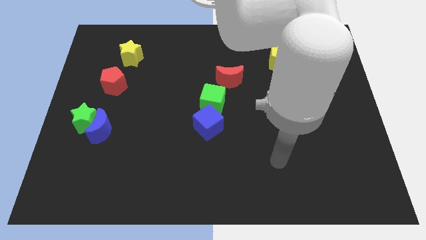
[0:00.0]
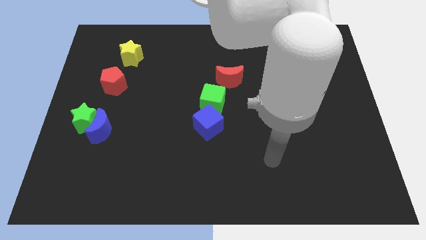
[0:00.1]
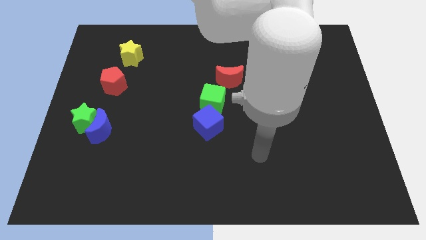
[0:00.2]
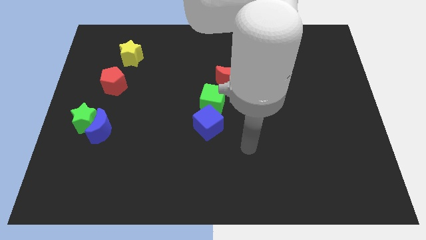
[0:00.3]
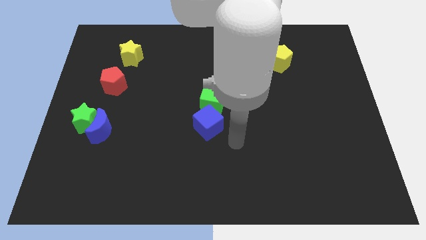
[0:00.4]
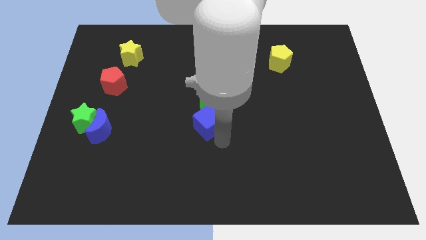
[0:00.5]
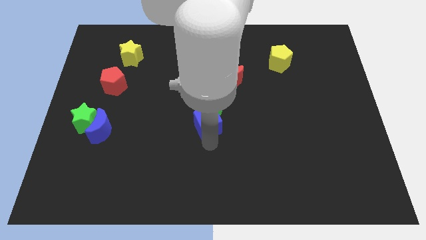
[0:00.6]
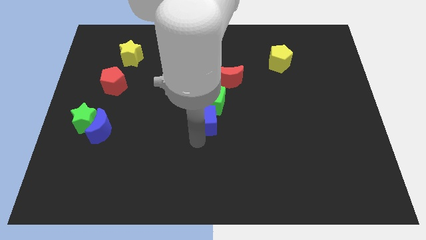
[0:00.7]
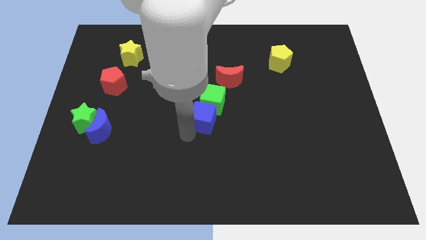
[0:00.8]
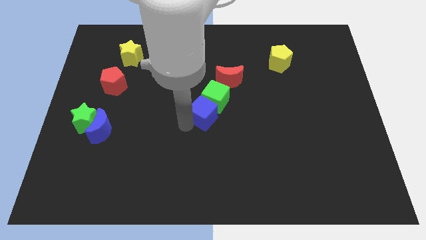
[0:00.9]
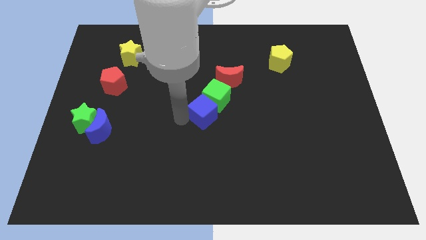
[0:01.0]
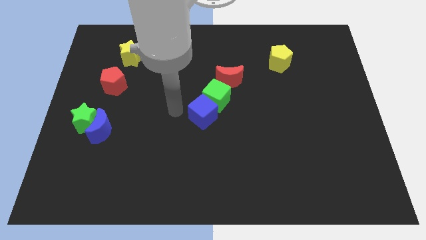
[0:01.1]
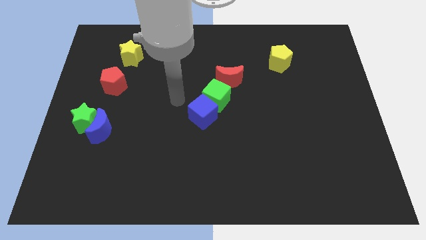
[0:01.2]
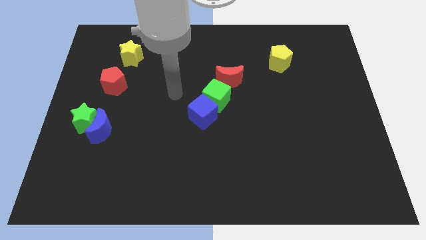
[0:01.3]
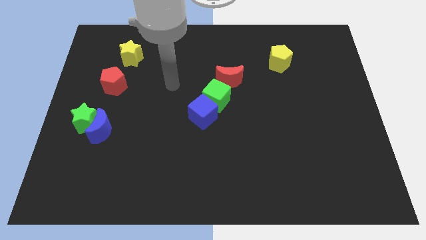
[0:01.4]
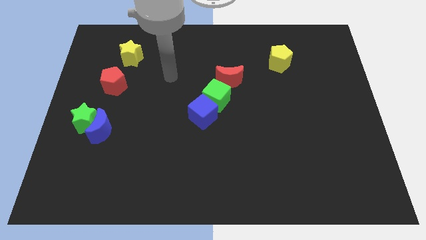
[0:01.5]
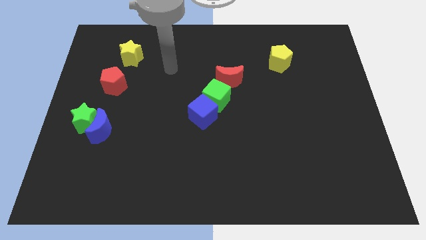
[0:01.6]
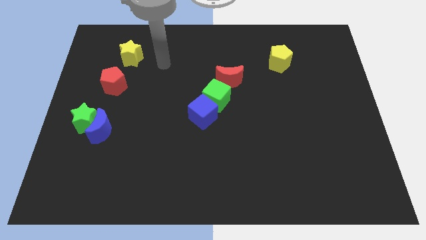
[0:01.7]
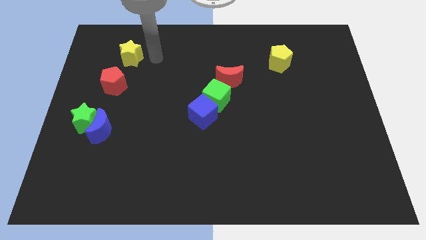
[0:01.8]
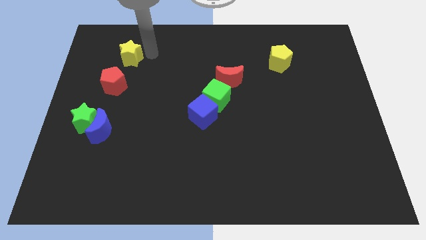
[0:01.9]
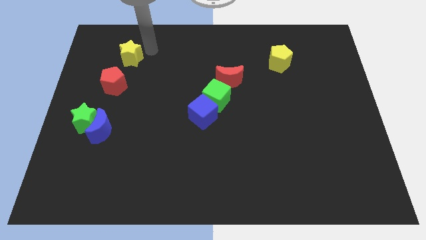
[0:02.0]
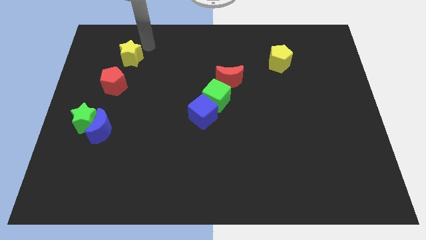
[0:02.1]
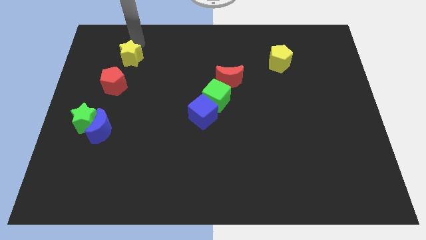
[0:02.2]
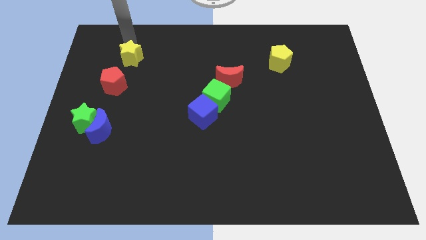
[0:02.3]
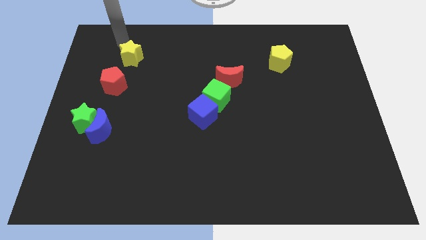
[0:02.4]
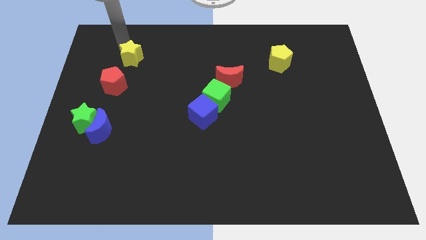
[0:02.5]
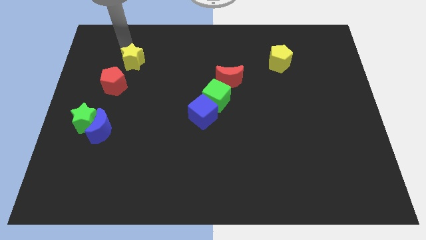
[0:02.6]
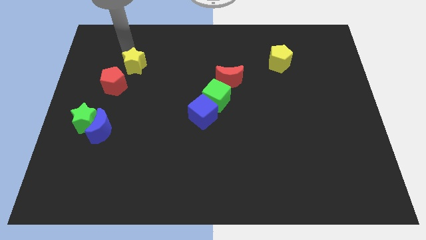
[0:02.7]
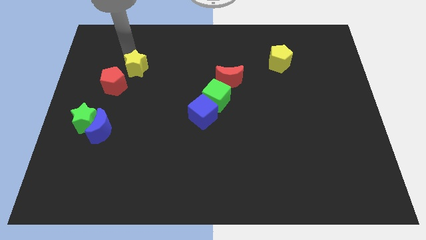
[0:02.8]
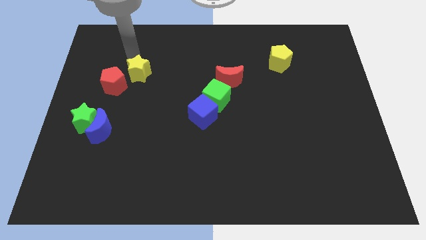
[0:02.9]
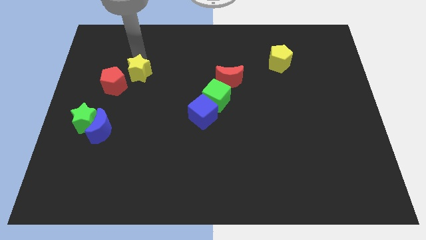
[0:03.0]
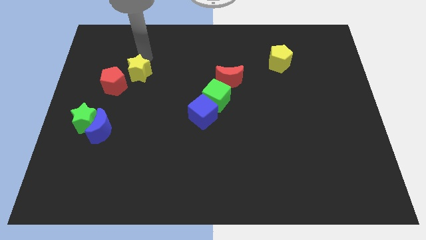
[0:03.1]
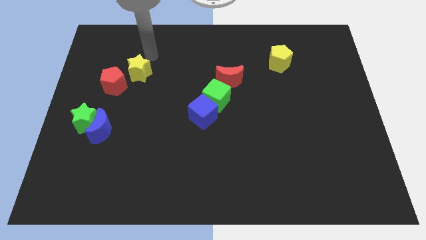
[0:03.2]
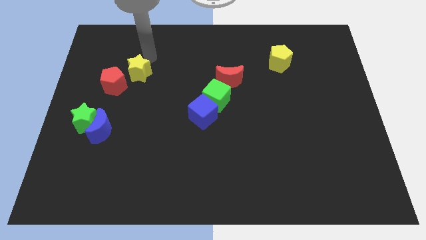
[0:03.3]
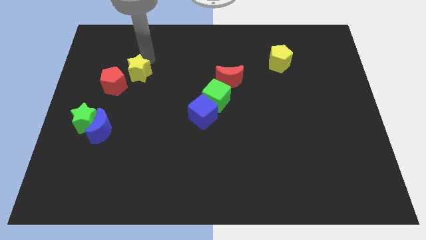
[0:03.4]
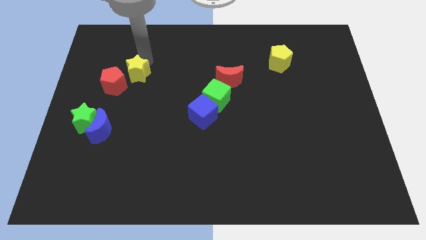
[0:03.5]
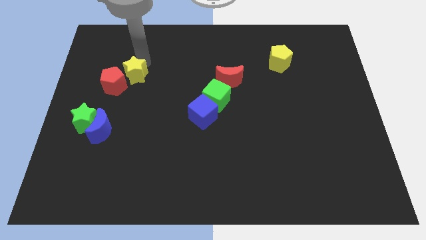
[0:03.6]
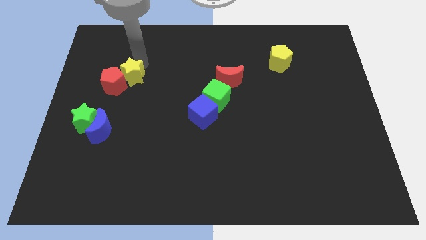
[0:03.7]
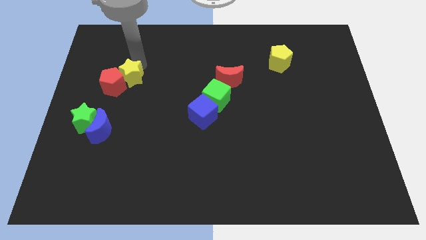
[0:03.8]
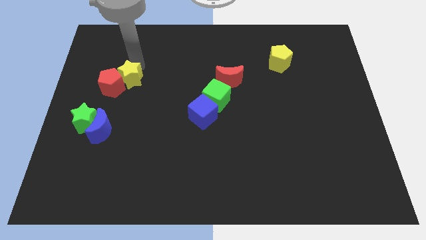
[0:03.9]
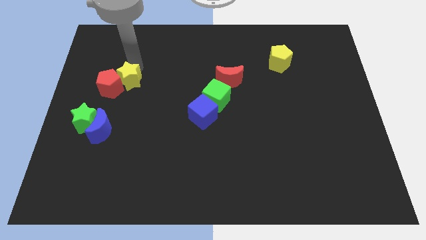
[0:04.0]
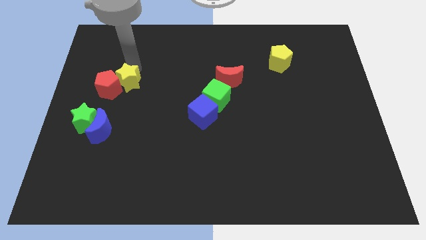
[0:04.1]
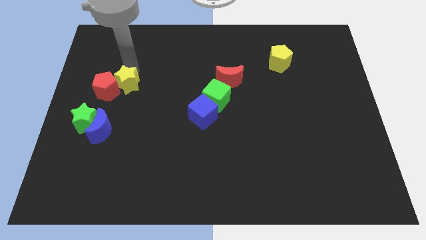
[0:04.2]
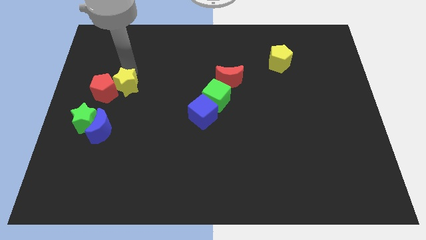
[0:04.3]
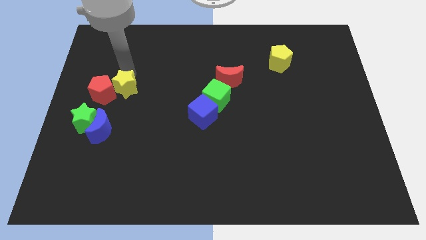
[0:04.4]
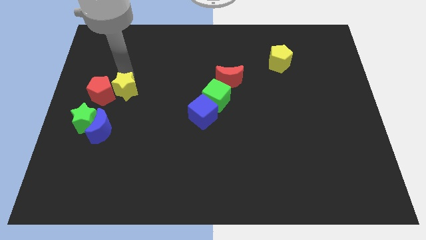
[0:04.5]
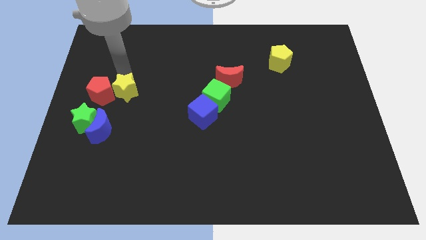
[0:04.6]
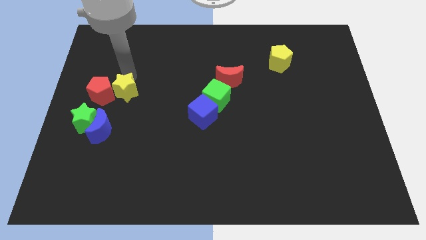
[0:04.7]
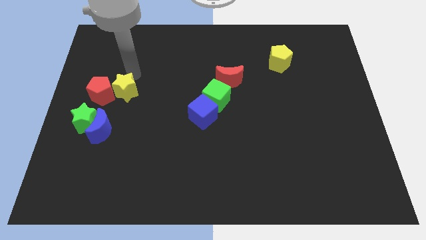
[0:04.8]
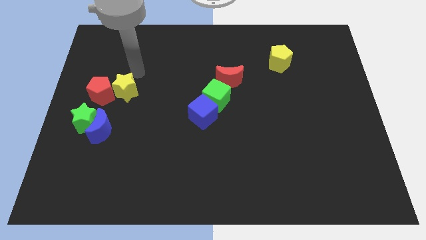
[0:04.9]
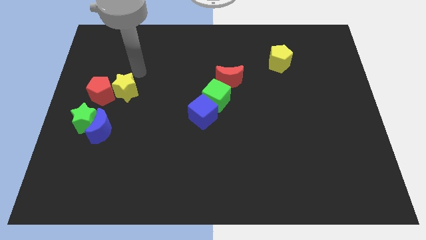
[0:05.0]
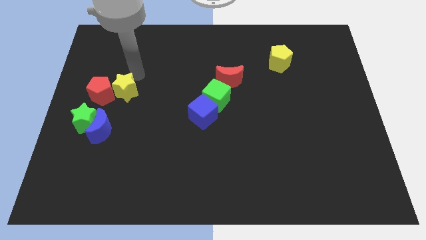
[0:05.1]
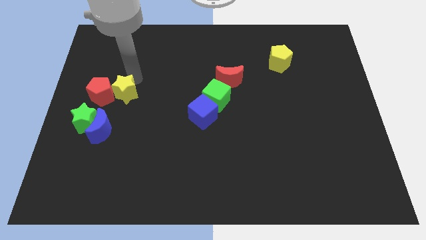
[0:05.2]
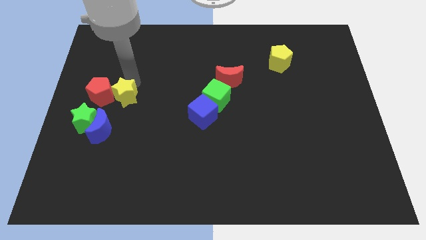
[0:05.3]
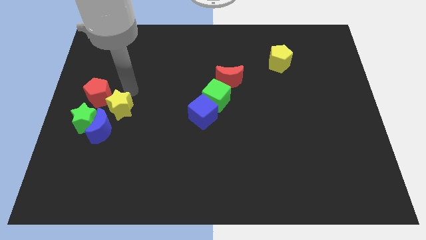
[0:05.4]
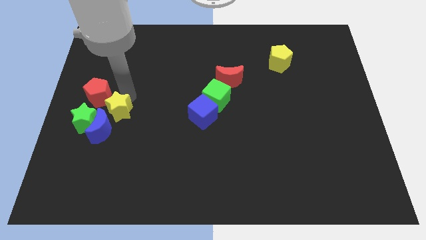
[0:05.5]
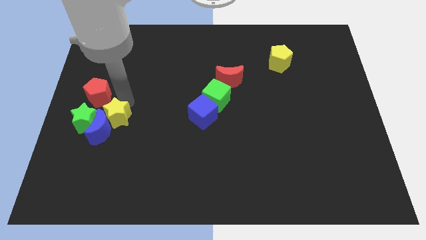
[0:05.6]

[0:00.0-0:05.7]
put the yellow star close to the blue moon

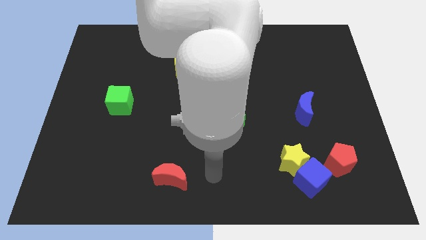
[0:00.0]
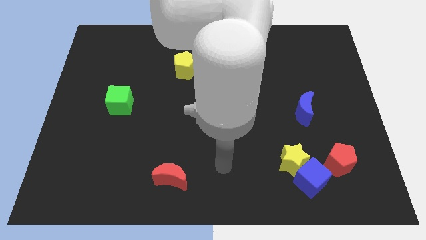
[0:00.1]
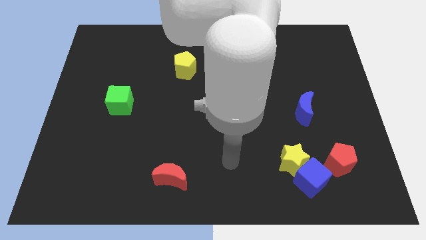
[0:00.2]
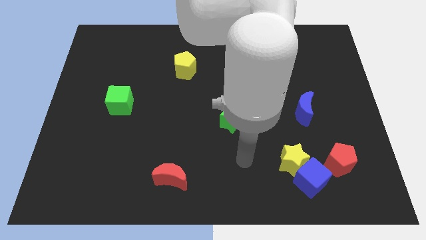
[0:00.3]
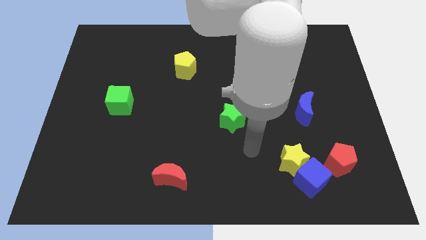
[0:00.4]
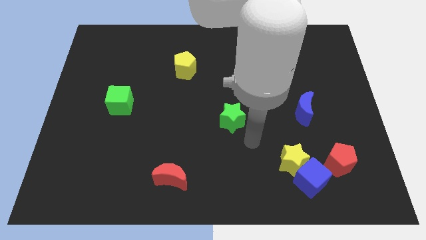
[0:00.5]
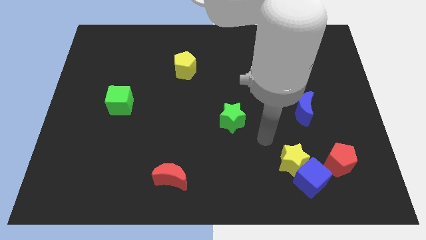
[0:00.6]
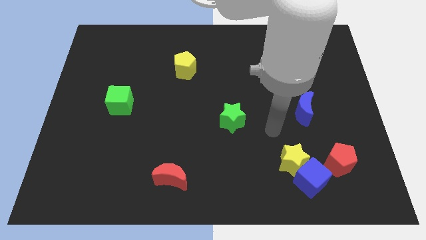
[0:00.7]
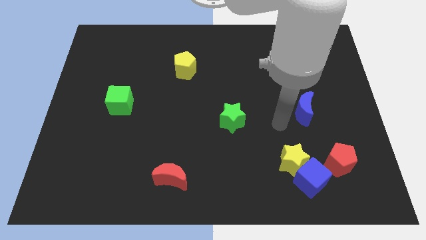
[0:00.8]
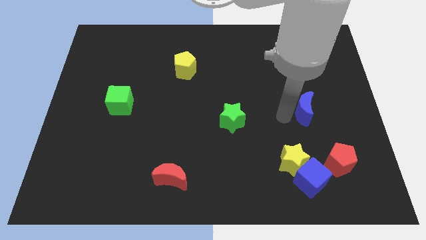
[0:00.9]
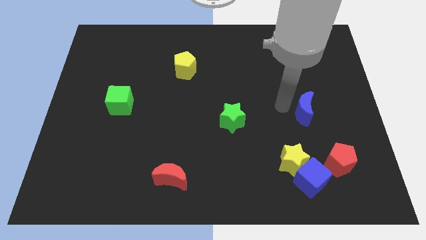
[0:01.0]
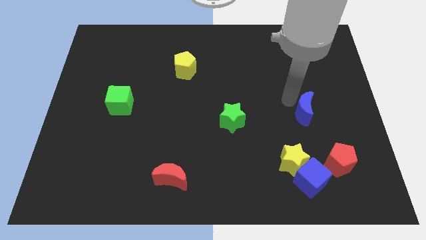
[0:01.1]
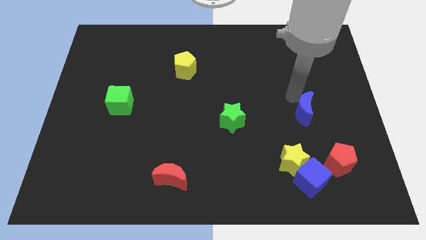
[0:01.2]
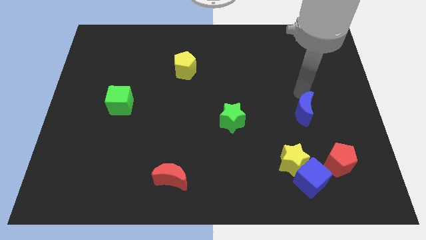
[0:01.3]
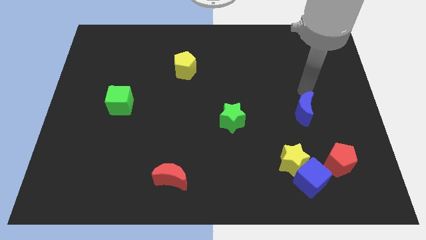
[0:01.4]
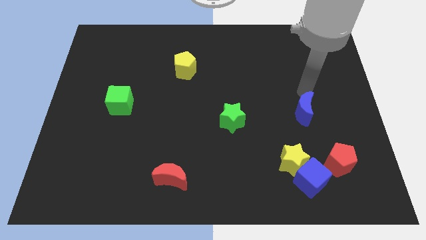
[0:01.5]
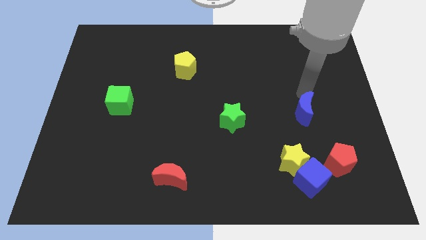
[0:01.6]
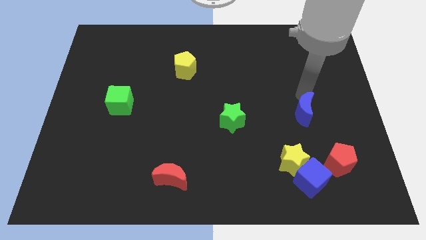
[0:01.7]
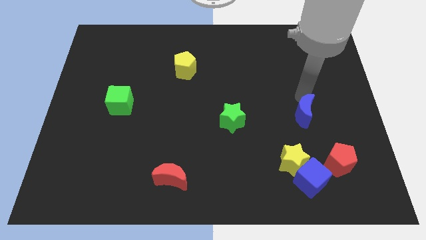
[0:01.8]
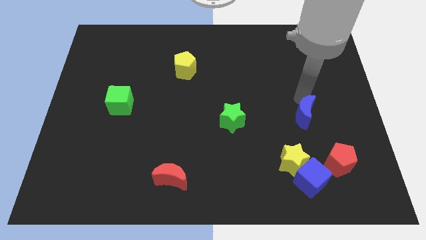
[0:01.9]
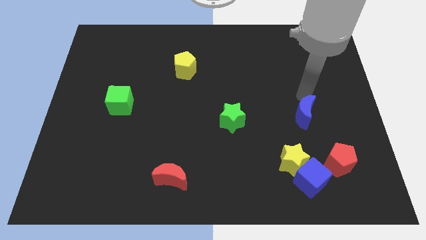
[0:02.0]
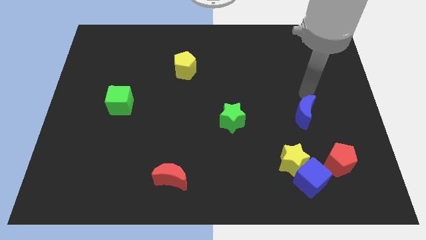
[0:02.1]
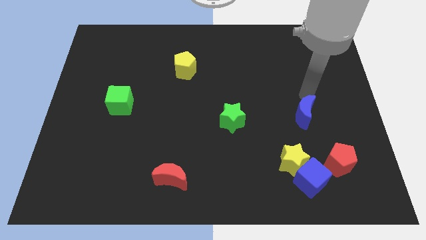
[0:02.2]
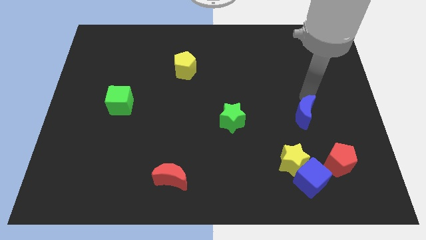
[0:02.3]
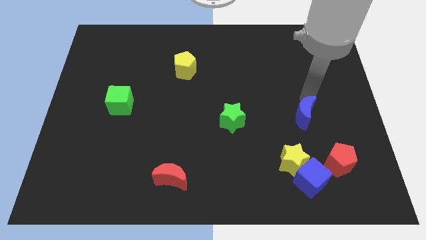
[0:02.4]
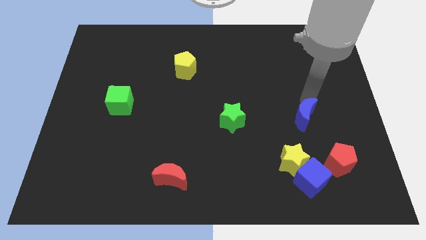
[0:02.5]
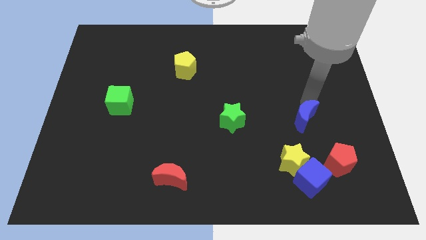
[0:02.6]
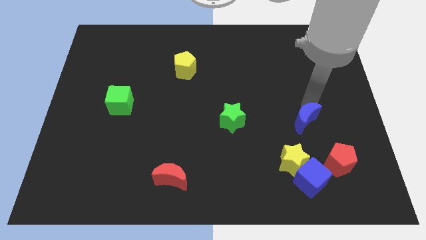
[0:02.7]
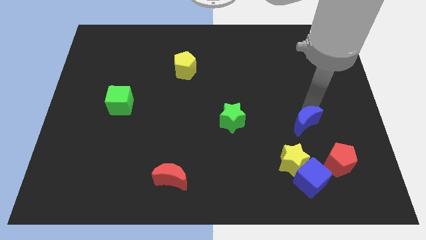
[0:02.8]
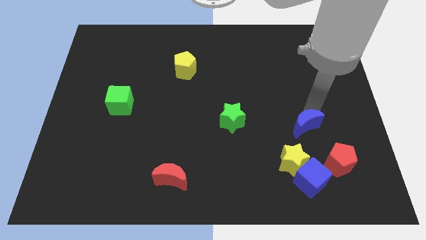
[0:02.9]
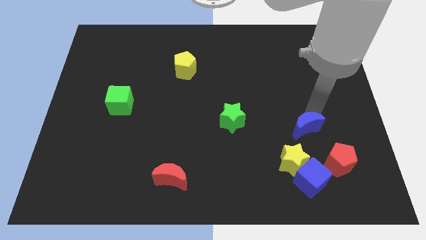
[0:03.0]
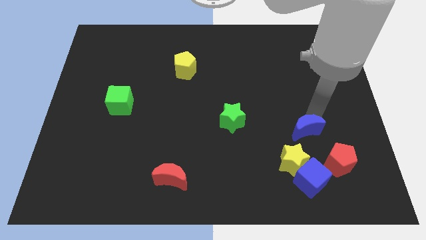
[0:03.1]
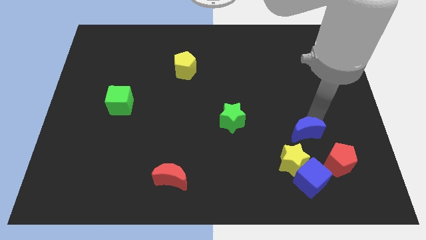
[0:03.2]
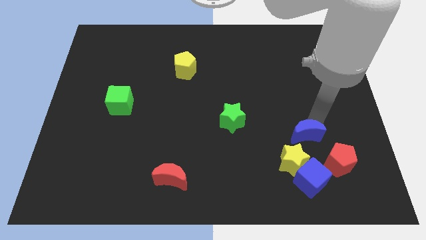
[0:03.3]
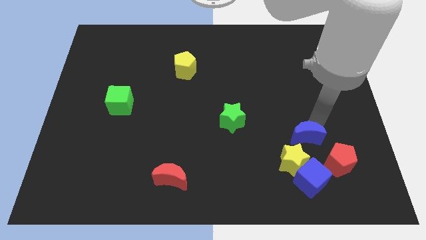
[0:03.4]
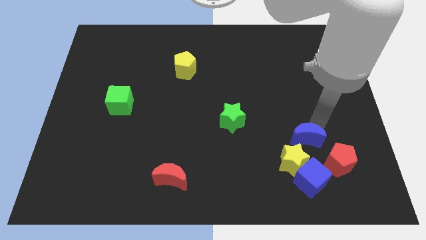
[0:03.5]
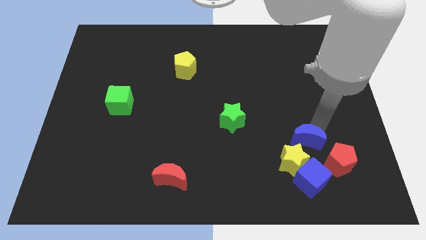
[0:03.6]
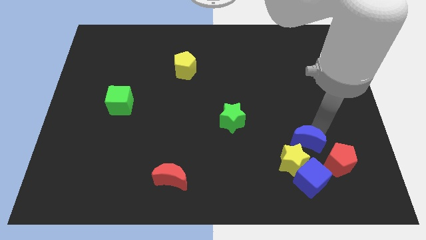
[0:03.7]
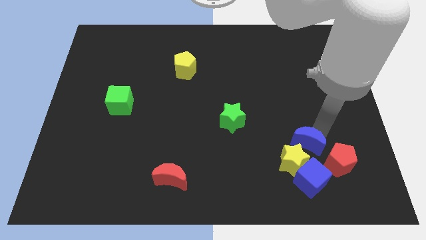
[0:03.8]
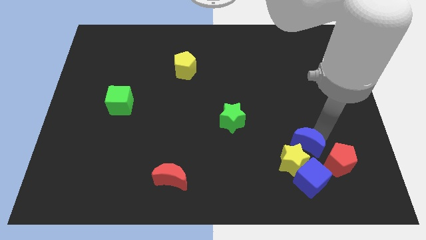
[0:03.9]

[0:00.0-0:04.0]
slide the blue moon next to the yellow star
